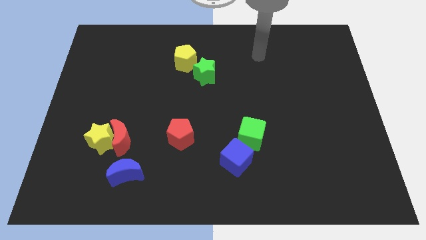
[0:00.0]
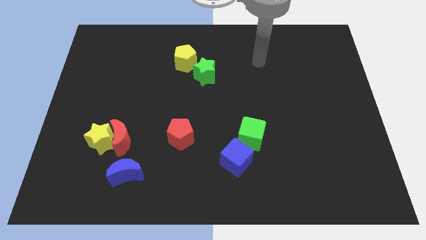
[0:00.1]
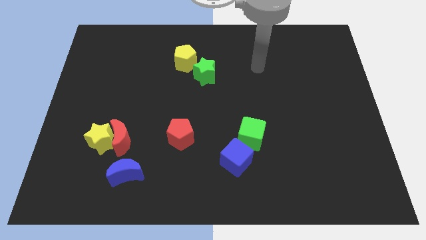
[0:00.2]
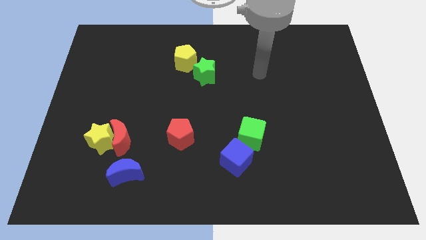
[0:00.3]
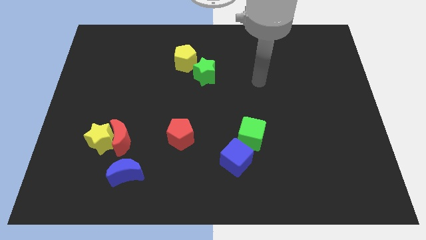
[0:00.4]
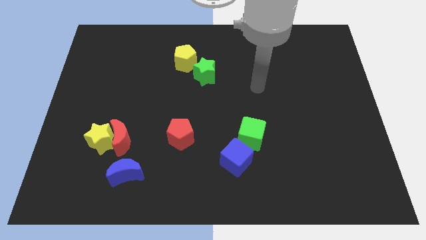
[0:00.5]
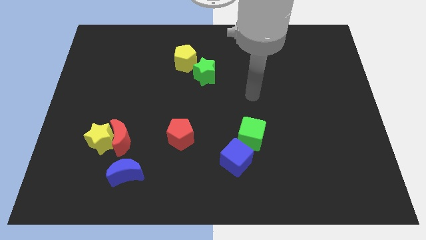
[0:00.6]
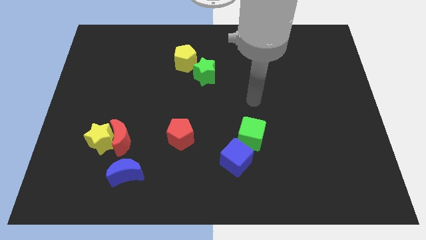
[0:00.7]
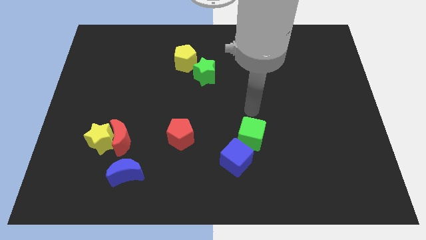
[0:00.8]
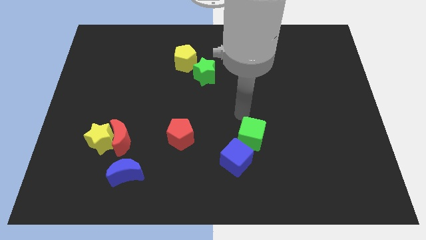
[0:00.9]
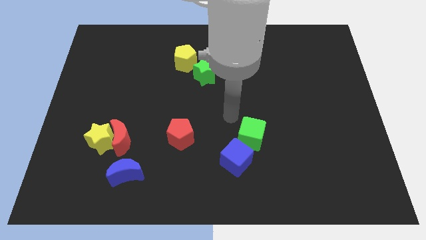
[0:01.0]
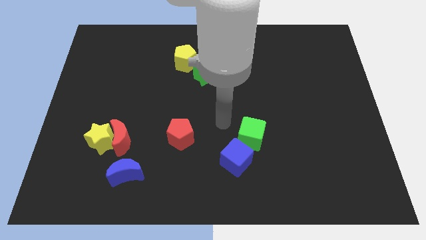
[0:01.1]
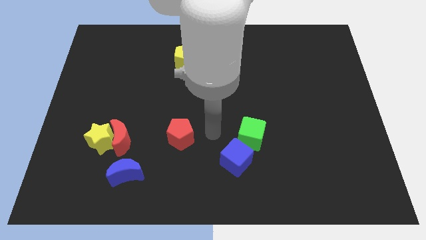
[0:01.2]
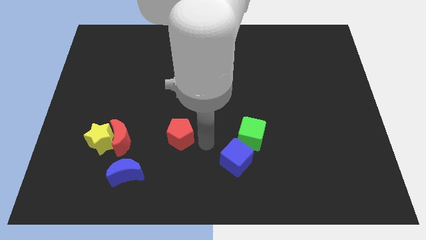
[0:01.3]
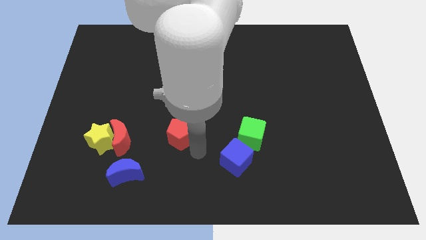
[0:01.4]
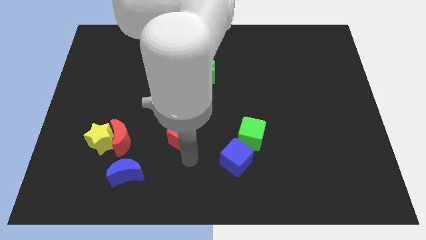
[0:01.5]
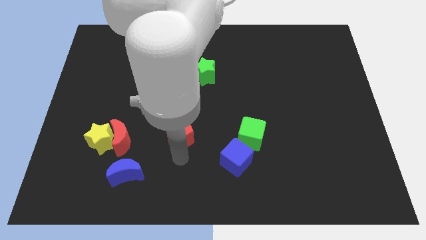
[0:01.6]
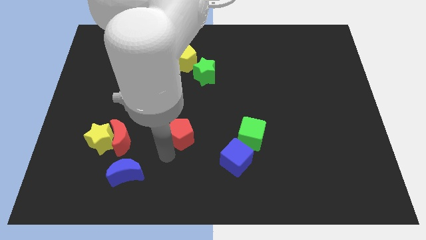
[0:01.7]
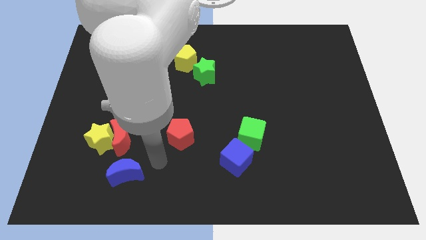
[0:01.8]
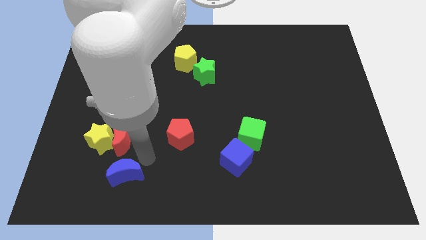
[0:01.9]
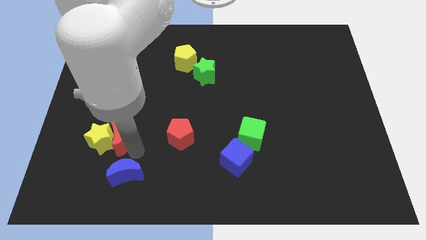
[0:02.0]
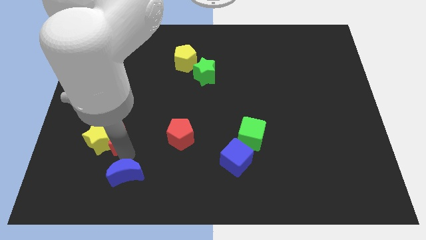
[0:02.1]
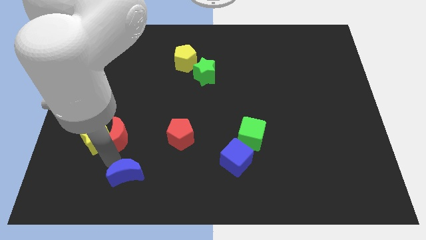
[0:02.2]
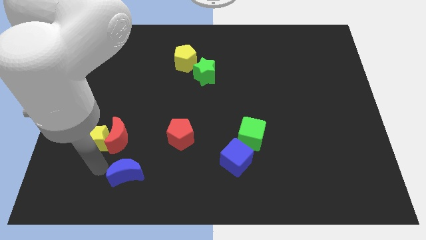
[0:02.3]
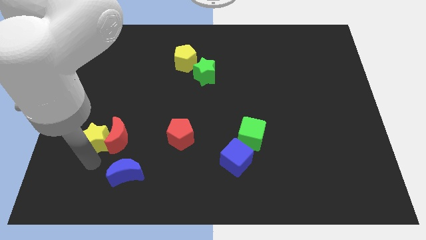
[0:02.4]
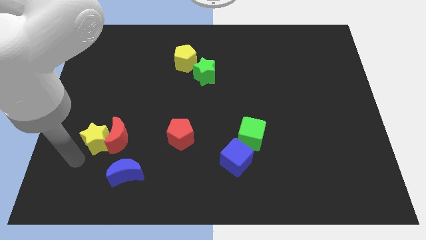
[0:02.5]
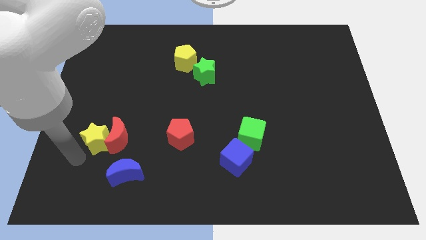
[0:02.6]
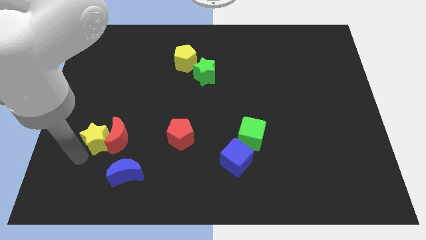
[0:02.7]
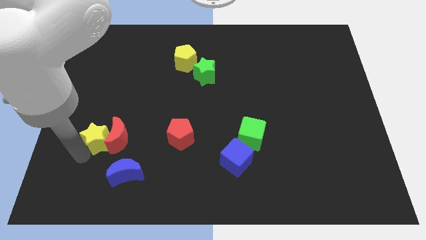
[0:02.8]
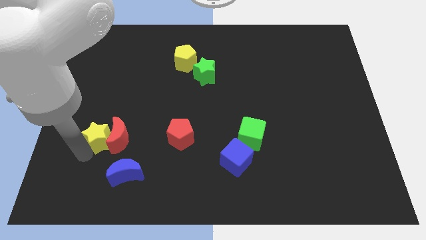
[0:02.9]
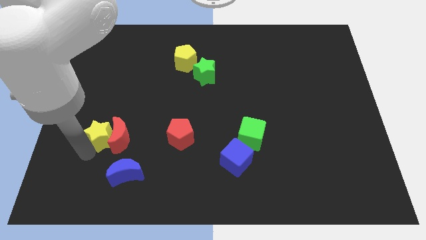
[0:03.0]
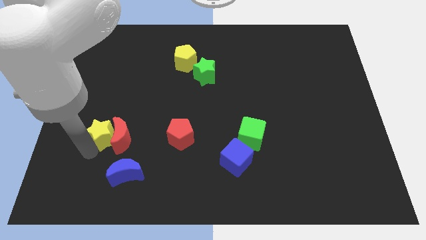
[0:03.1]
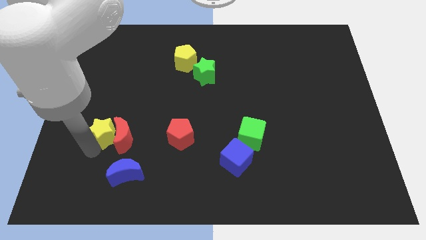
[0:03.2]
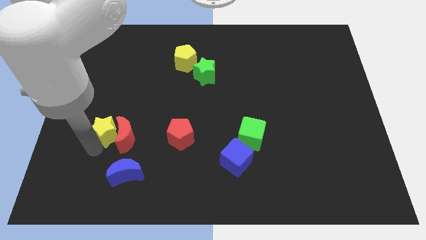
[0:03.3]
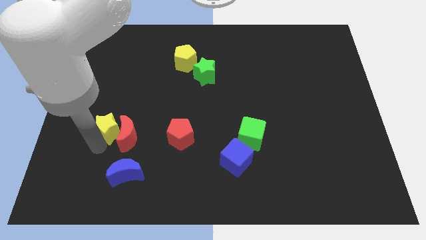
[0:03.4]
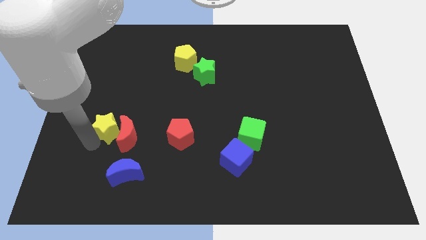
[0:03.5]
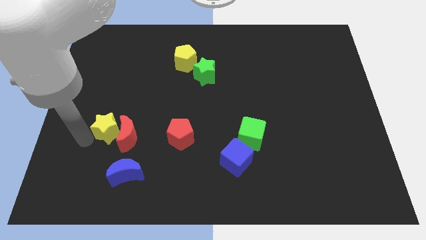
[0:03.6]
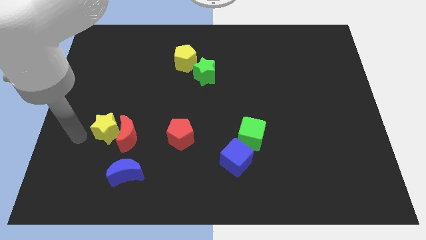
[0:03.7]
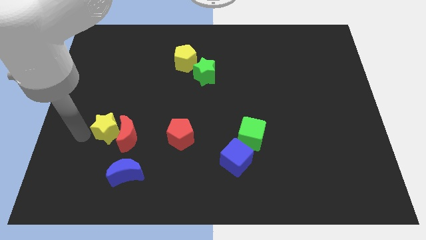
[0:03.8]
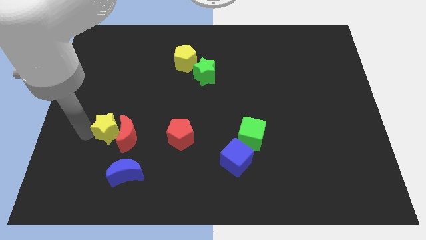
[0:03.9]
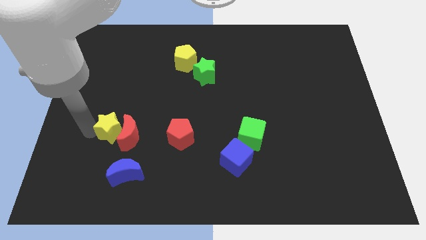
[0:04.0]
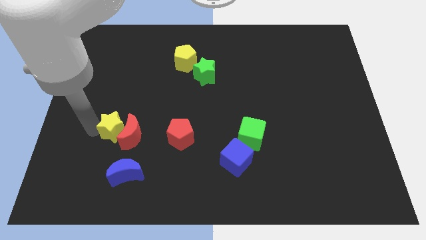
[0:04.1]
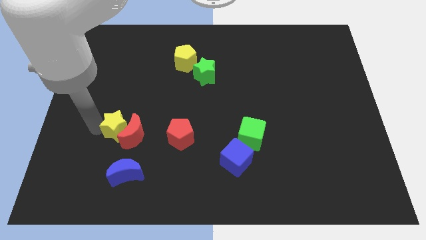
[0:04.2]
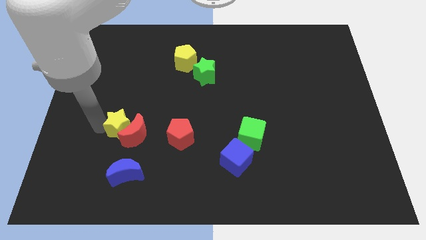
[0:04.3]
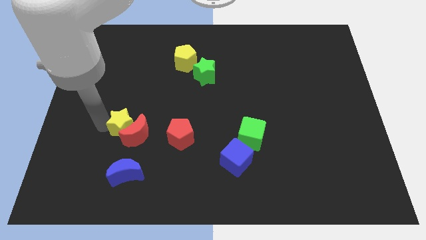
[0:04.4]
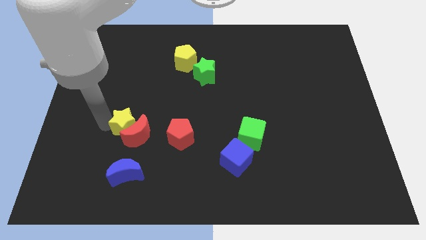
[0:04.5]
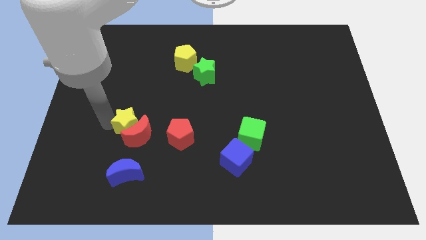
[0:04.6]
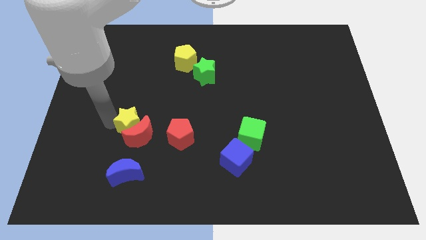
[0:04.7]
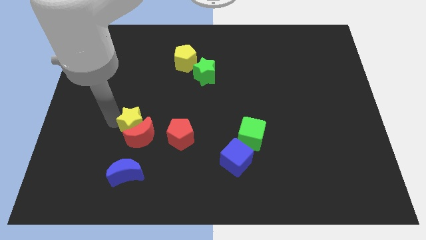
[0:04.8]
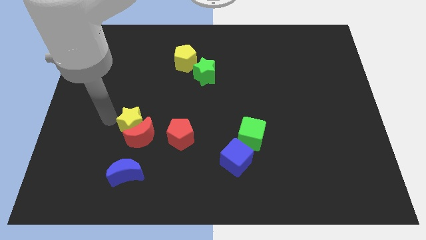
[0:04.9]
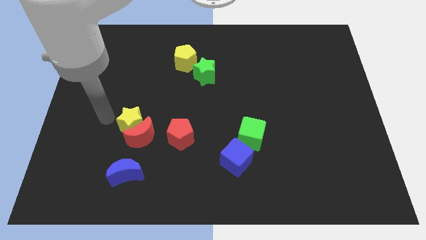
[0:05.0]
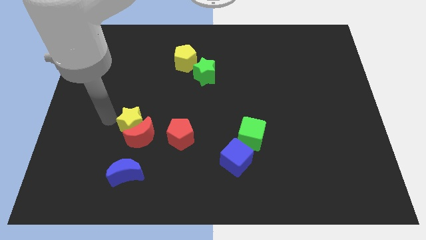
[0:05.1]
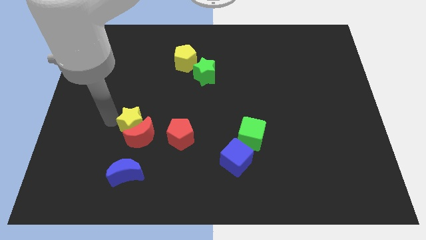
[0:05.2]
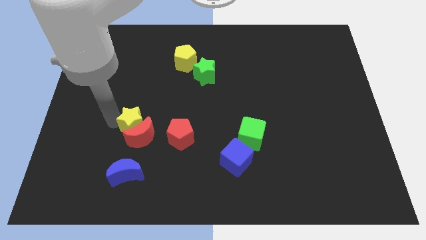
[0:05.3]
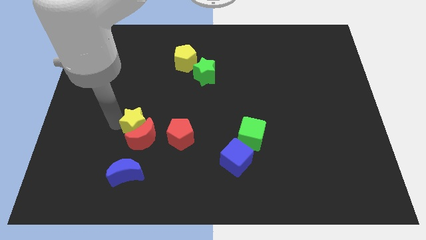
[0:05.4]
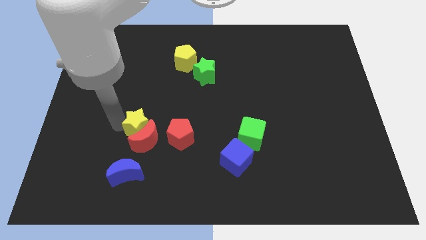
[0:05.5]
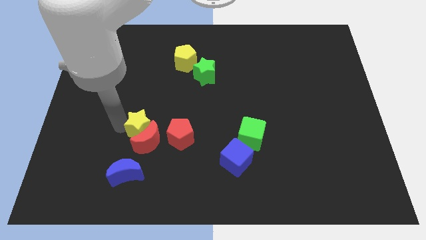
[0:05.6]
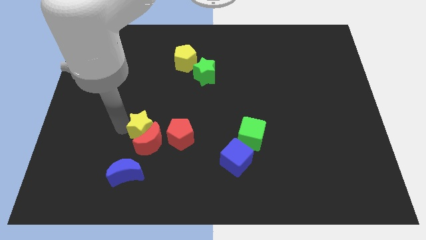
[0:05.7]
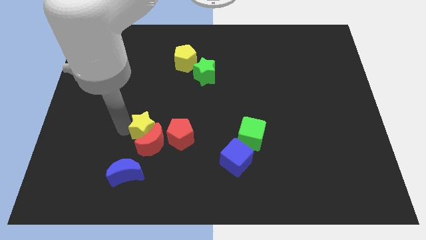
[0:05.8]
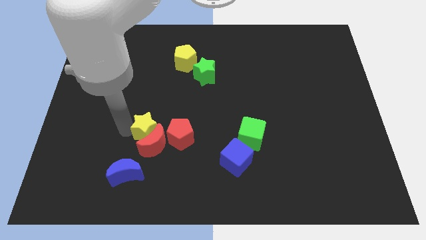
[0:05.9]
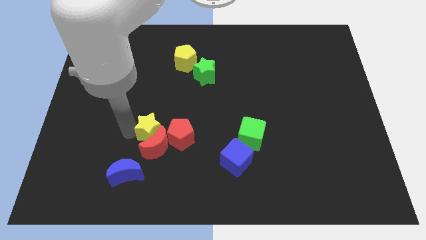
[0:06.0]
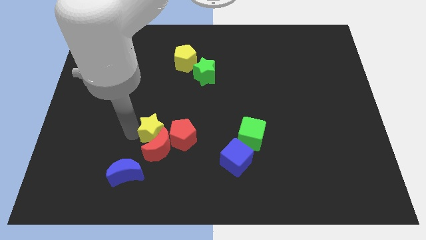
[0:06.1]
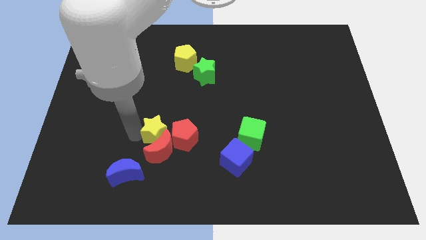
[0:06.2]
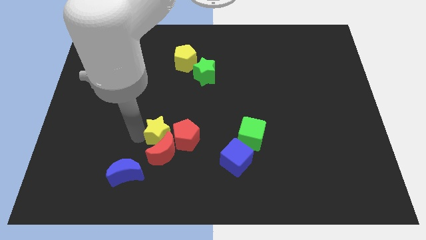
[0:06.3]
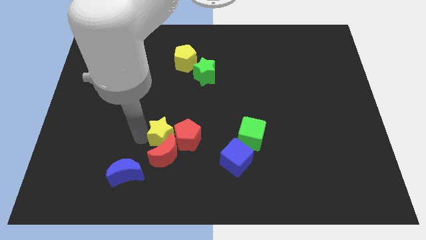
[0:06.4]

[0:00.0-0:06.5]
slide the yellow star towards the red pentagon

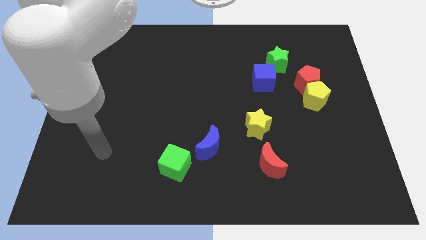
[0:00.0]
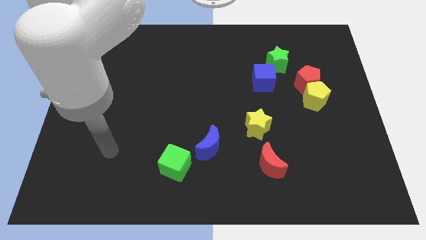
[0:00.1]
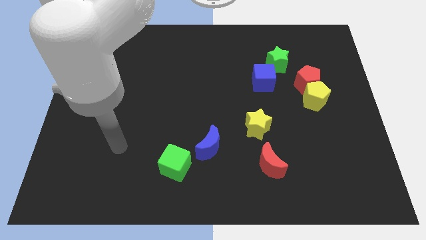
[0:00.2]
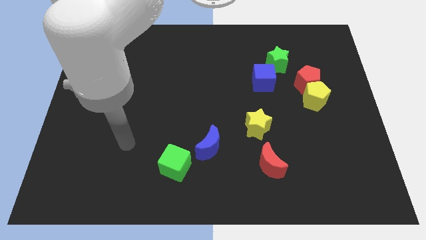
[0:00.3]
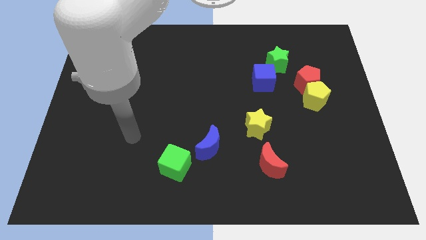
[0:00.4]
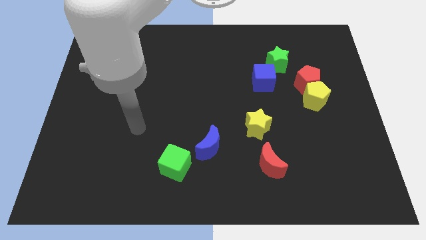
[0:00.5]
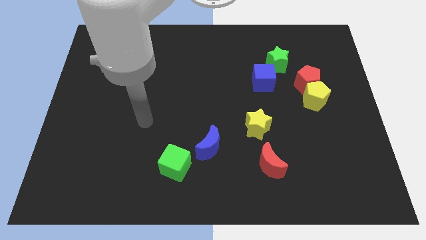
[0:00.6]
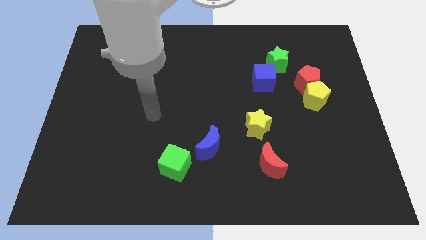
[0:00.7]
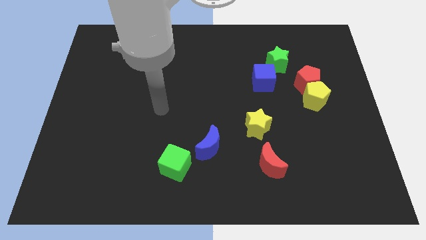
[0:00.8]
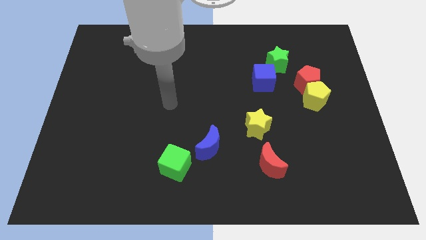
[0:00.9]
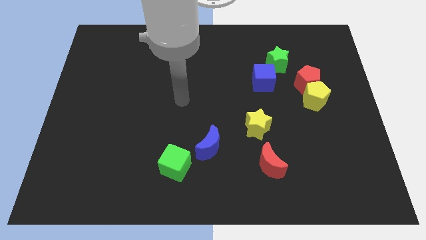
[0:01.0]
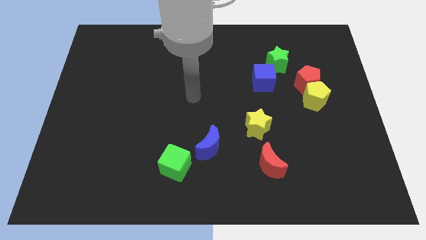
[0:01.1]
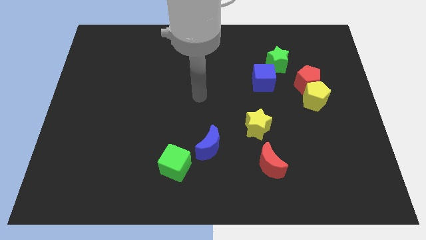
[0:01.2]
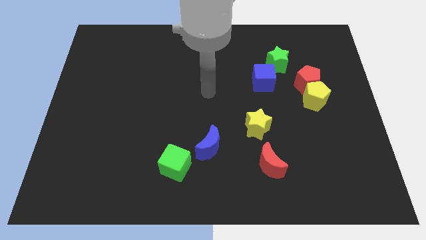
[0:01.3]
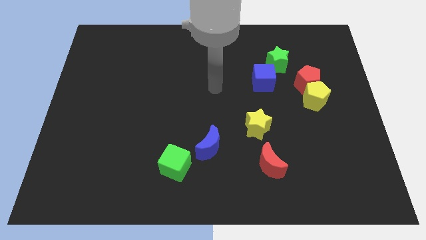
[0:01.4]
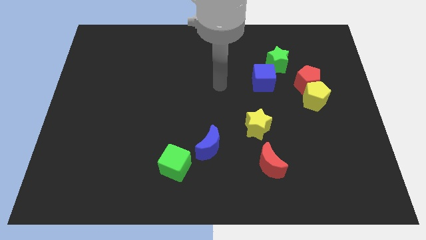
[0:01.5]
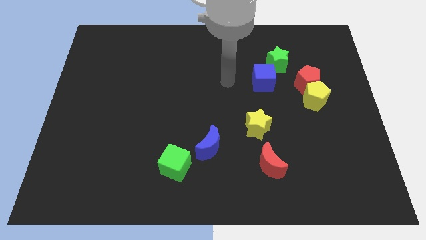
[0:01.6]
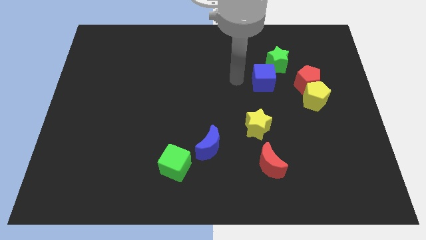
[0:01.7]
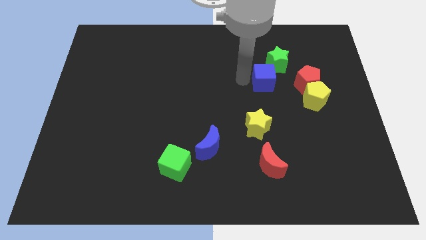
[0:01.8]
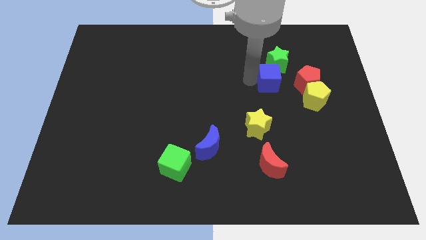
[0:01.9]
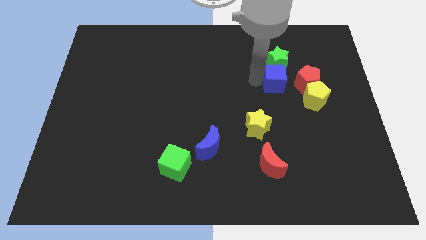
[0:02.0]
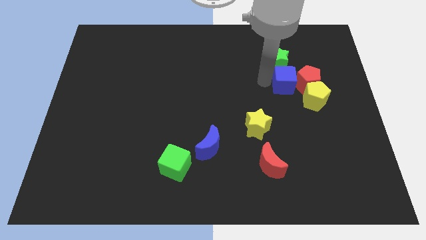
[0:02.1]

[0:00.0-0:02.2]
slide the blue cube to the red pentagon
